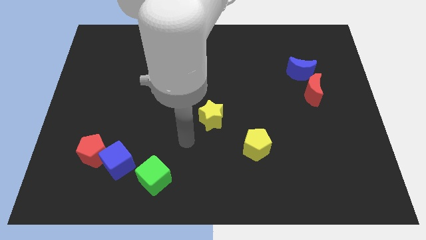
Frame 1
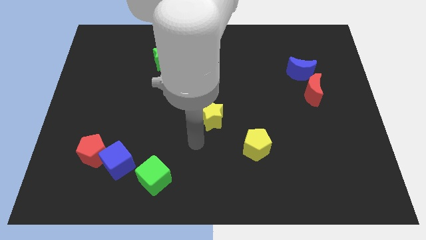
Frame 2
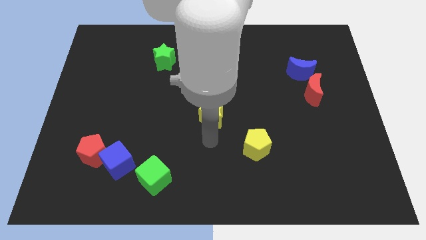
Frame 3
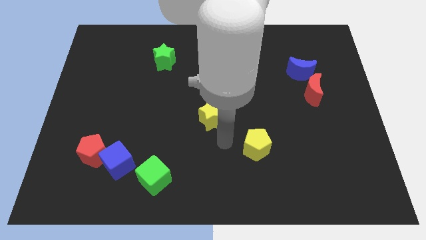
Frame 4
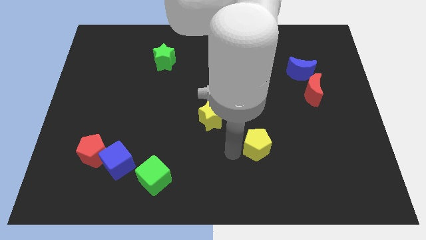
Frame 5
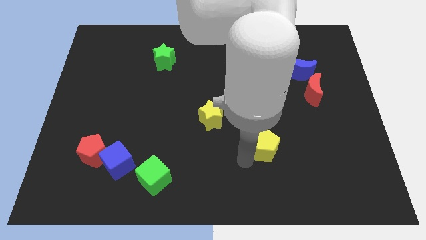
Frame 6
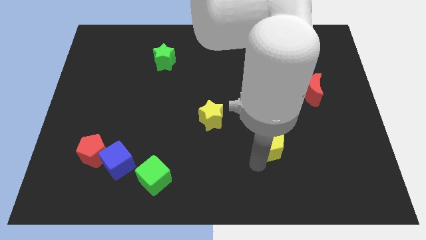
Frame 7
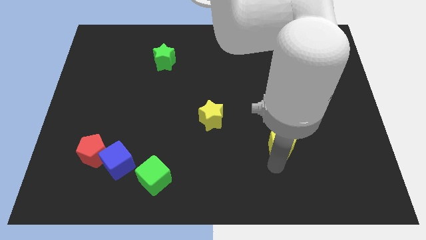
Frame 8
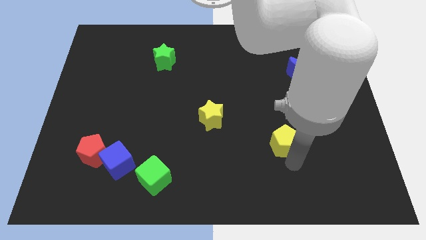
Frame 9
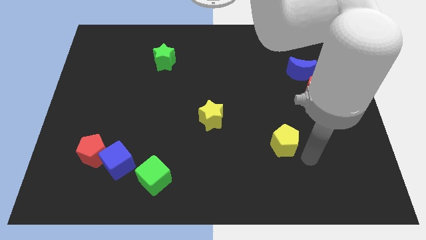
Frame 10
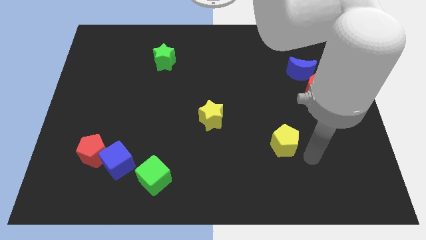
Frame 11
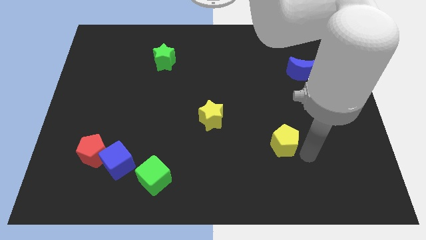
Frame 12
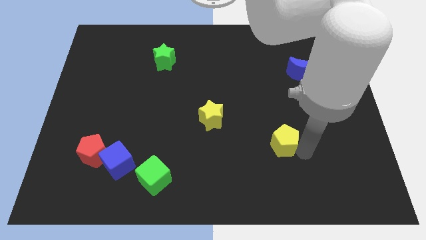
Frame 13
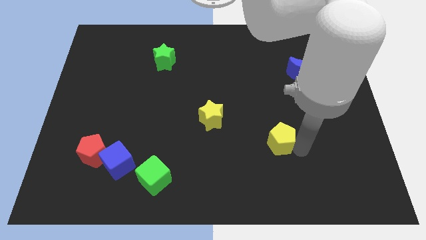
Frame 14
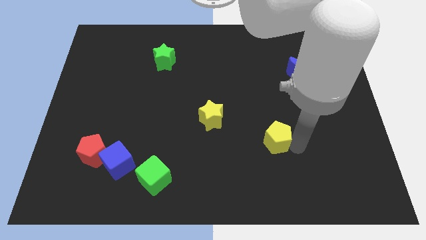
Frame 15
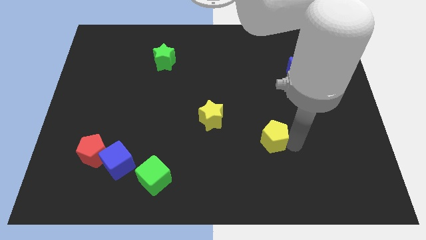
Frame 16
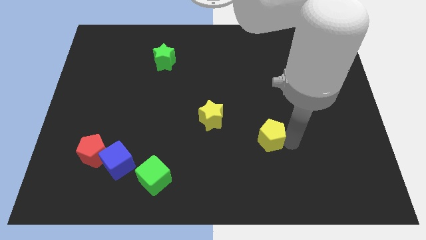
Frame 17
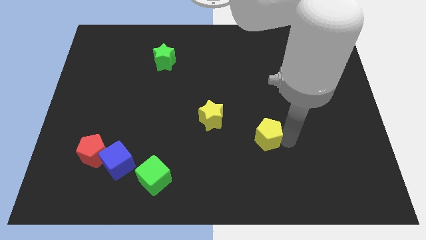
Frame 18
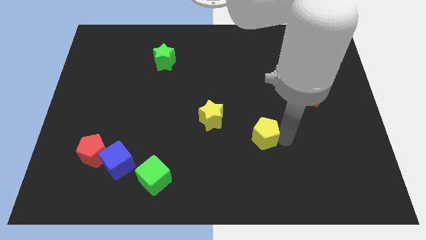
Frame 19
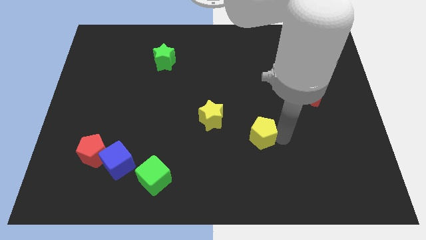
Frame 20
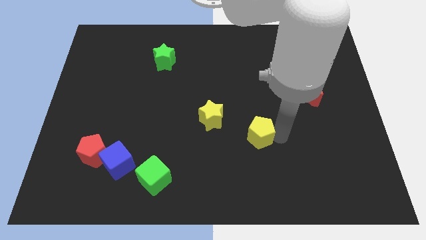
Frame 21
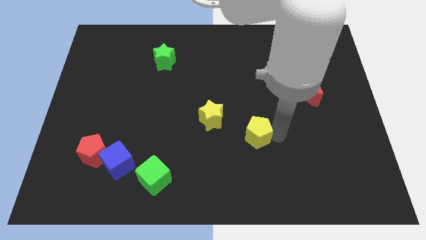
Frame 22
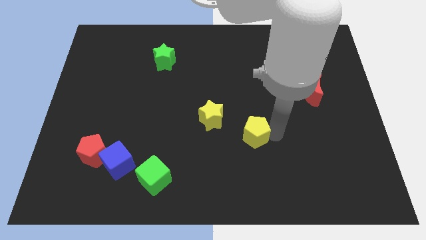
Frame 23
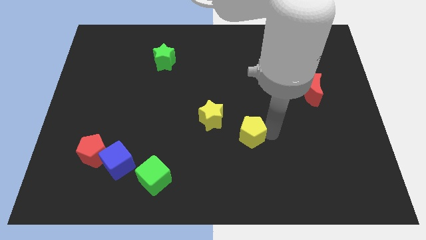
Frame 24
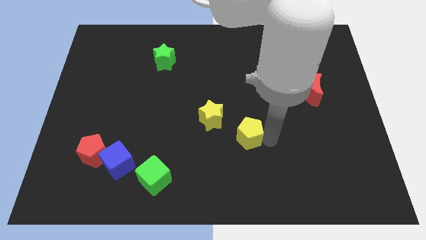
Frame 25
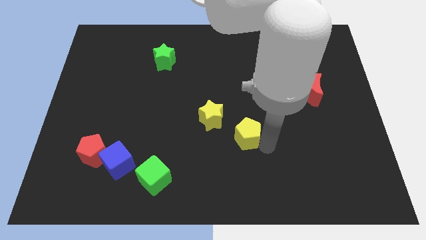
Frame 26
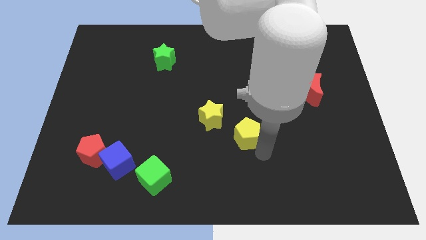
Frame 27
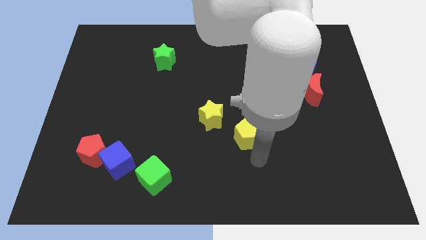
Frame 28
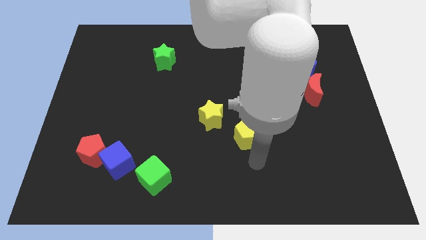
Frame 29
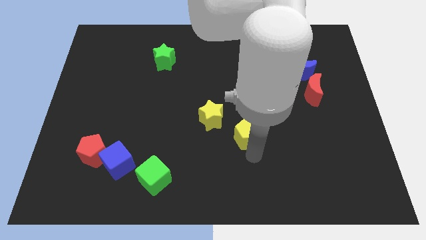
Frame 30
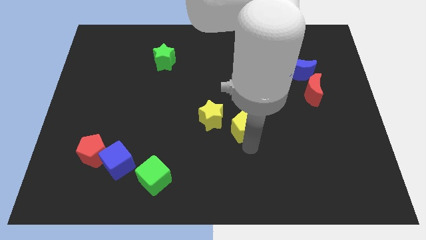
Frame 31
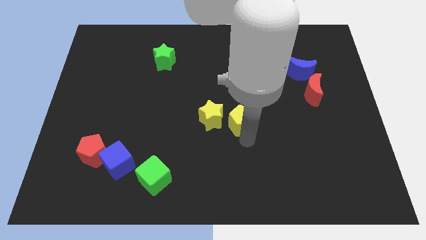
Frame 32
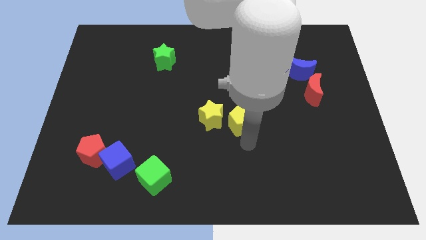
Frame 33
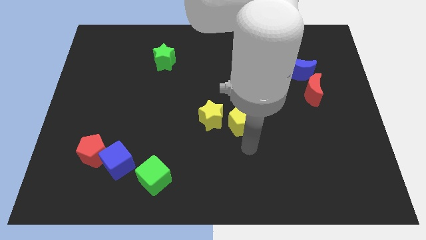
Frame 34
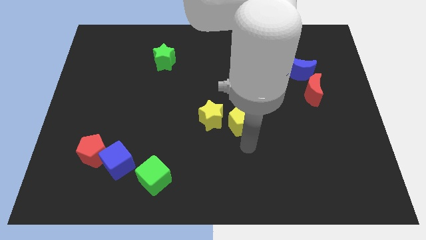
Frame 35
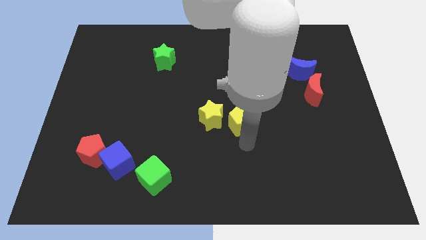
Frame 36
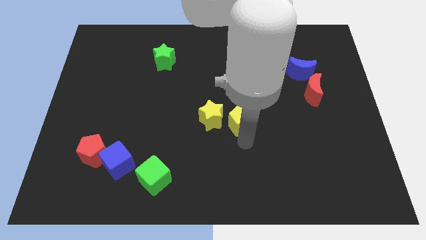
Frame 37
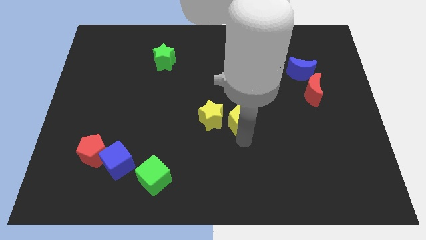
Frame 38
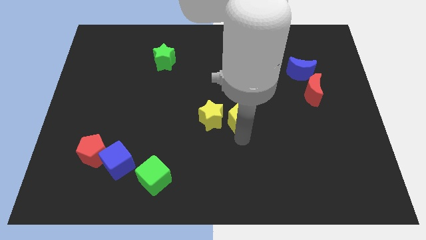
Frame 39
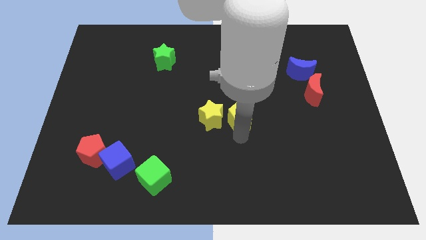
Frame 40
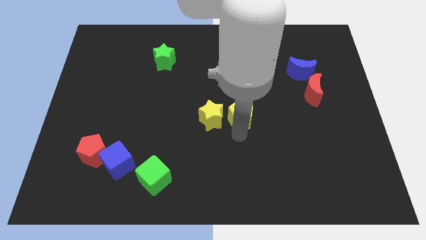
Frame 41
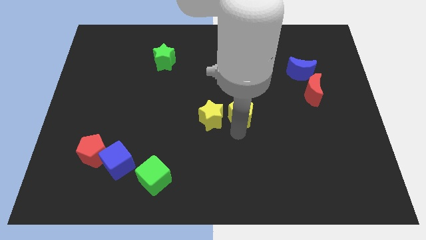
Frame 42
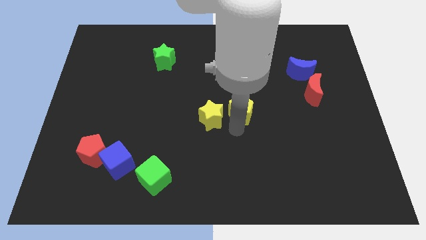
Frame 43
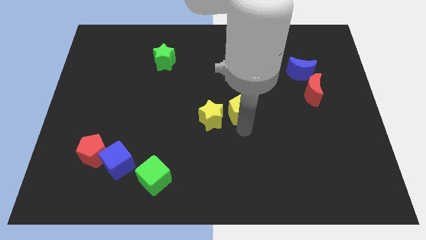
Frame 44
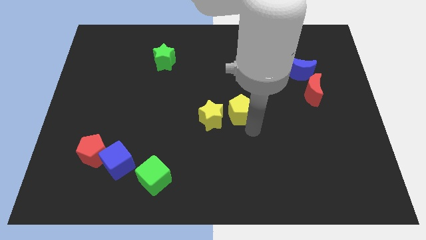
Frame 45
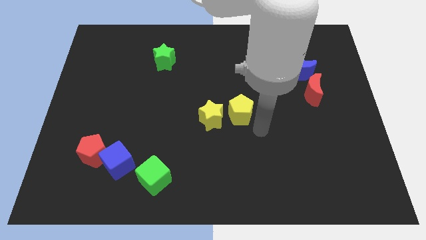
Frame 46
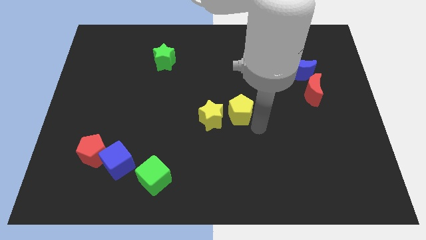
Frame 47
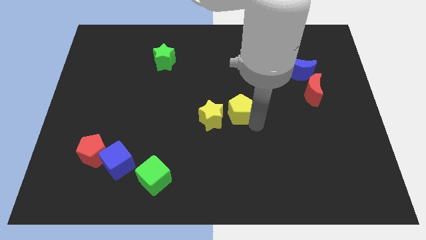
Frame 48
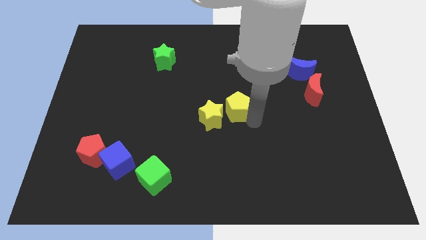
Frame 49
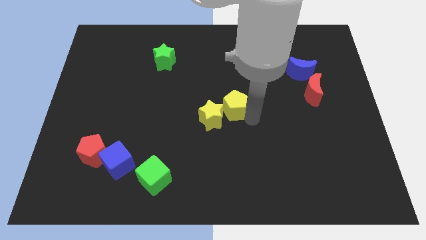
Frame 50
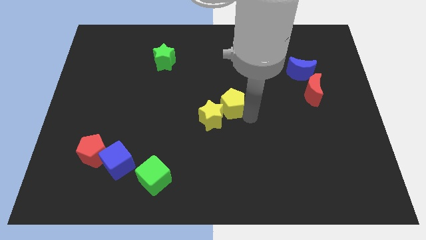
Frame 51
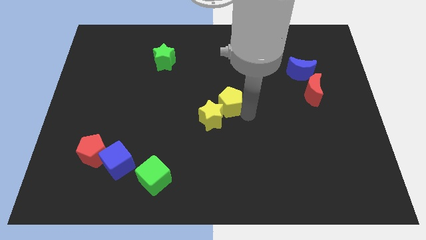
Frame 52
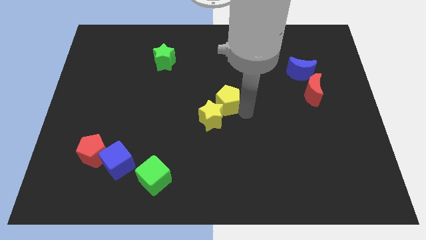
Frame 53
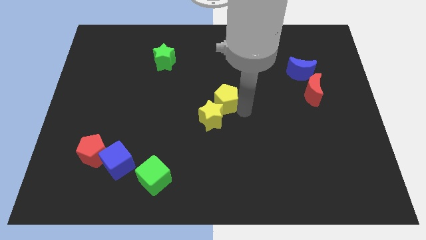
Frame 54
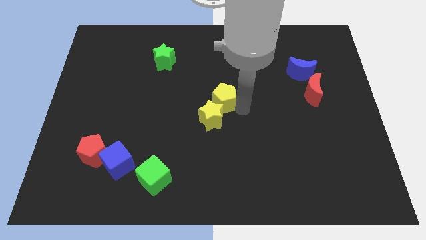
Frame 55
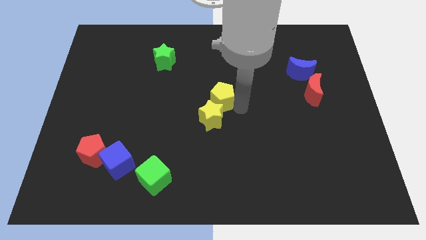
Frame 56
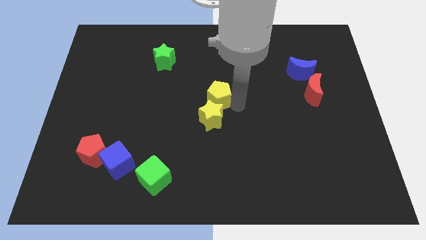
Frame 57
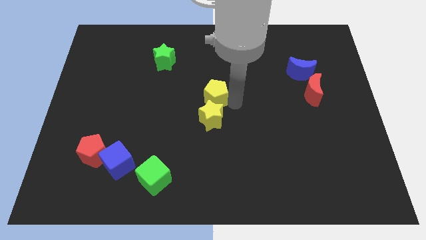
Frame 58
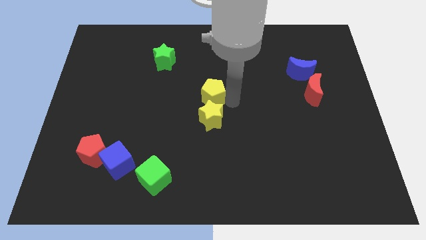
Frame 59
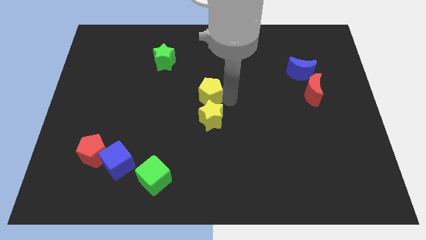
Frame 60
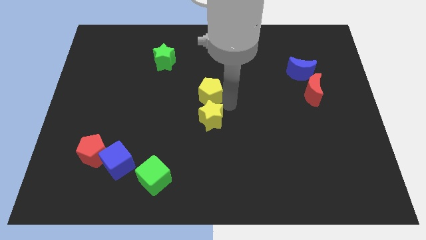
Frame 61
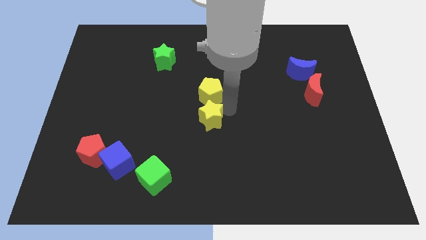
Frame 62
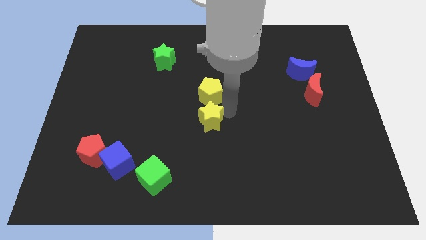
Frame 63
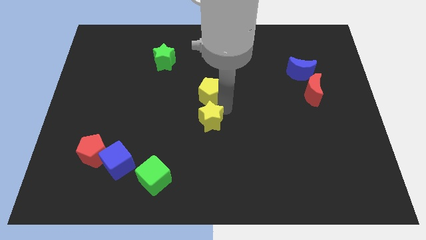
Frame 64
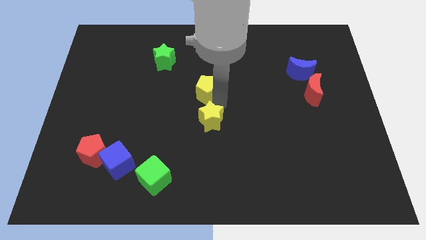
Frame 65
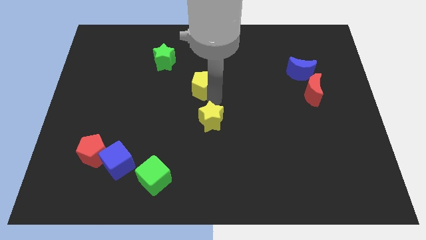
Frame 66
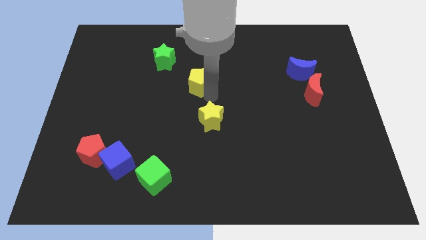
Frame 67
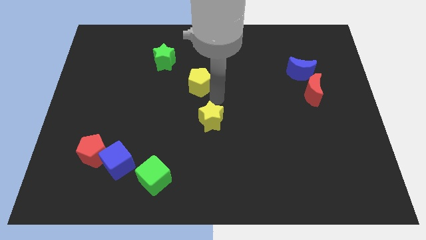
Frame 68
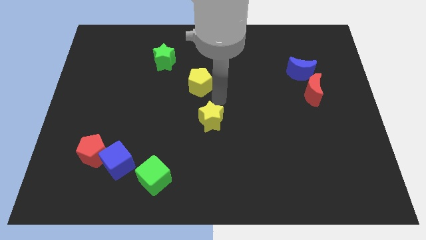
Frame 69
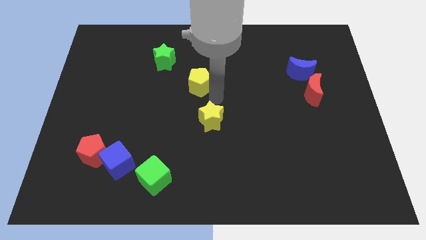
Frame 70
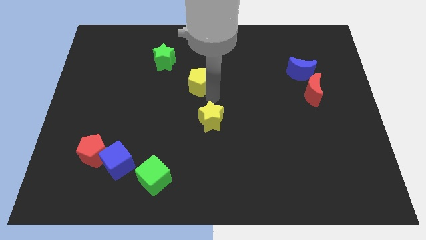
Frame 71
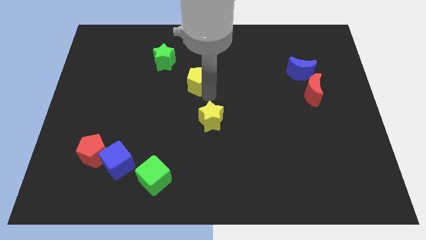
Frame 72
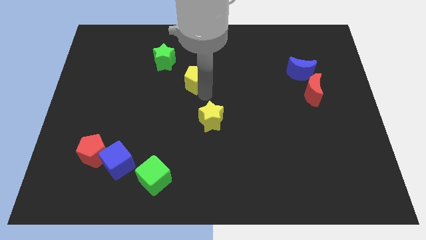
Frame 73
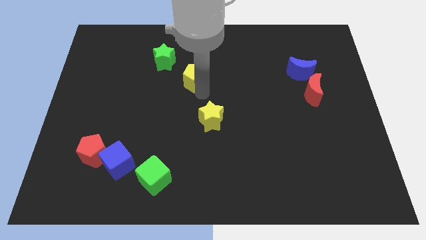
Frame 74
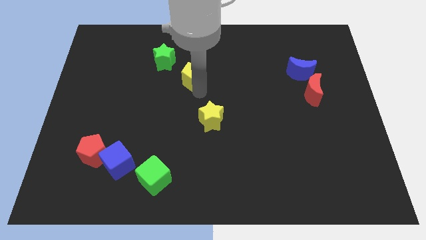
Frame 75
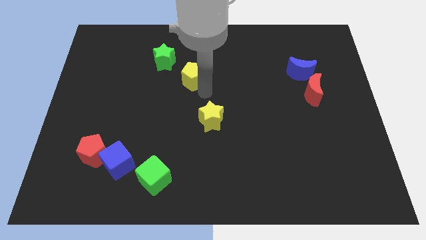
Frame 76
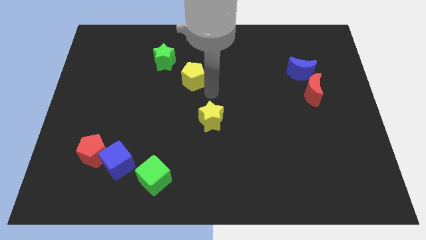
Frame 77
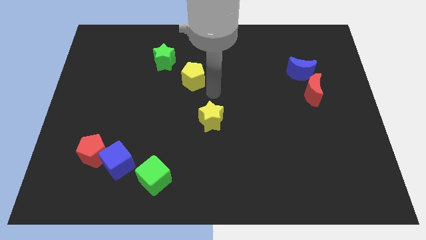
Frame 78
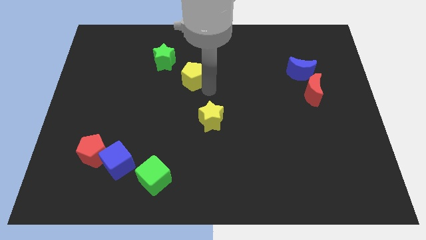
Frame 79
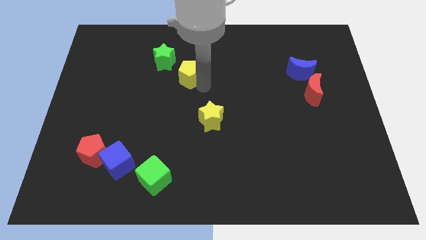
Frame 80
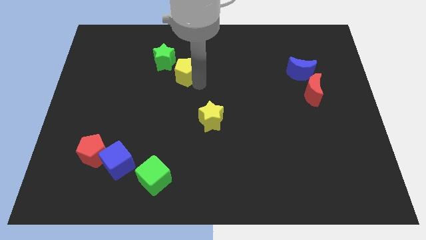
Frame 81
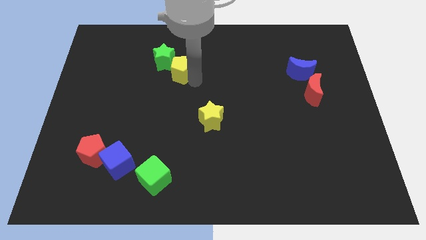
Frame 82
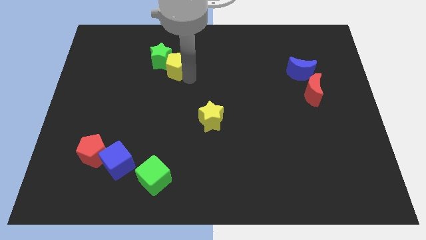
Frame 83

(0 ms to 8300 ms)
push the yellow pentagon to the green star
